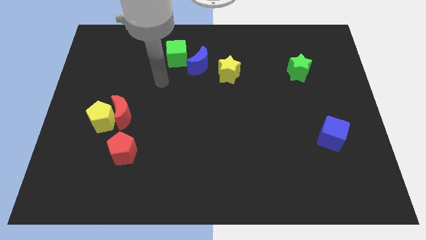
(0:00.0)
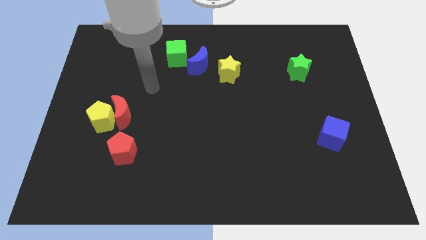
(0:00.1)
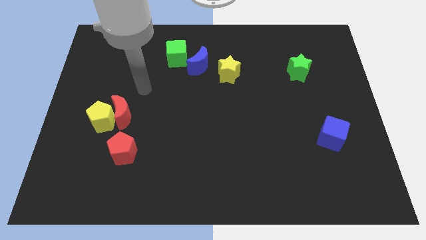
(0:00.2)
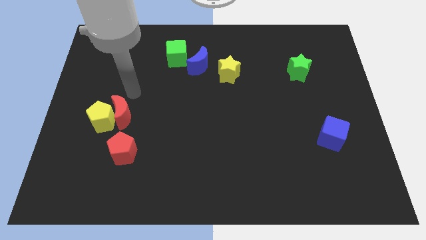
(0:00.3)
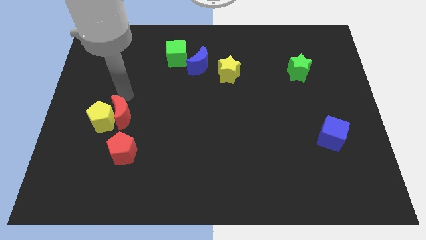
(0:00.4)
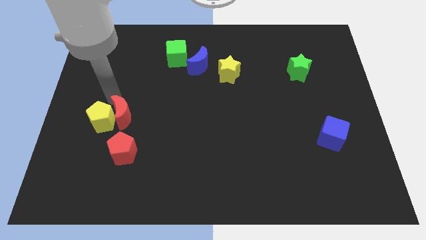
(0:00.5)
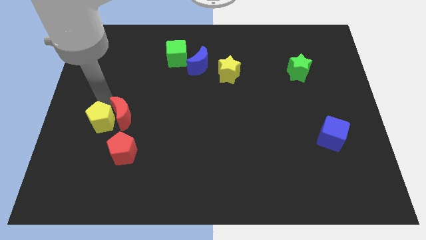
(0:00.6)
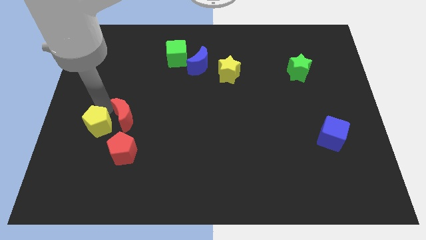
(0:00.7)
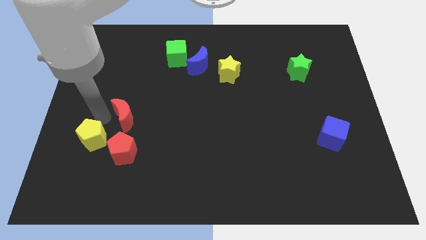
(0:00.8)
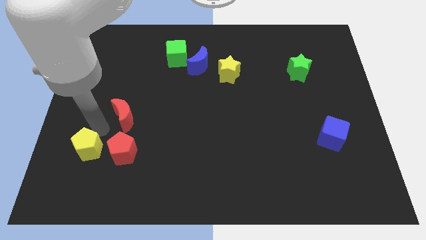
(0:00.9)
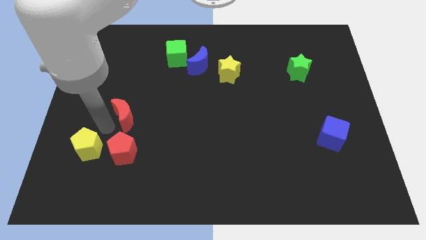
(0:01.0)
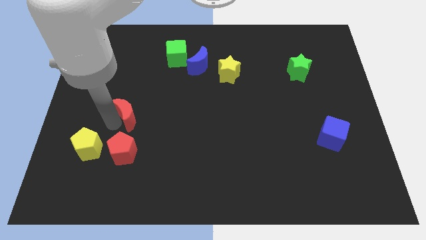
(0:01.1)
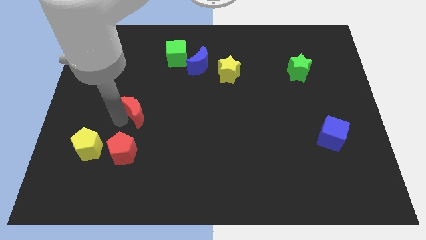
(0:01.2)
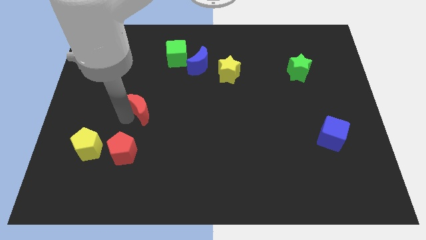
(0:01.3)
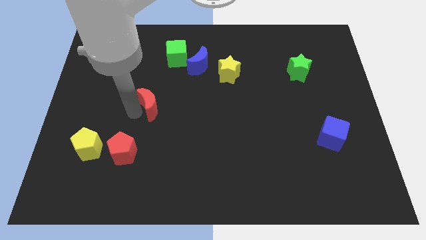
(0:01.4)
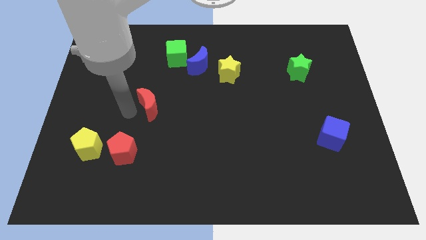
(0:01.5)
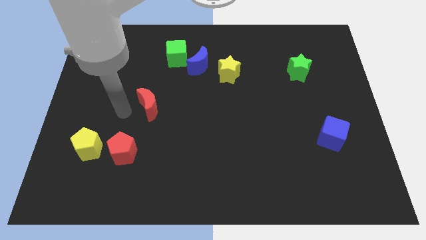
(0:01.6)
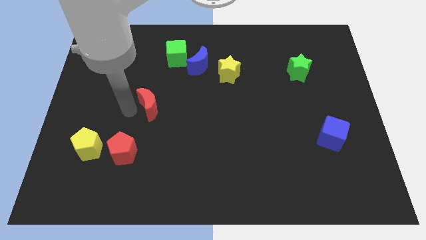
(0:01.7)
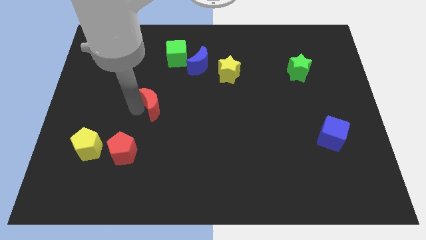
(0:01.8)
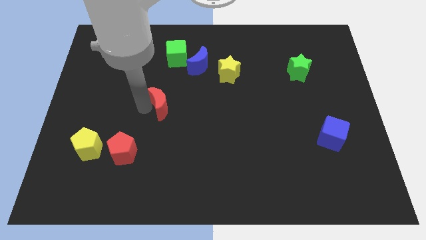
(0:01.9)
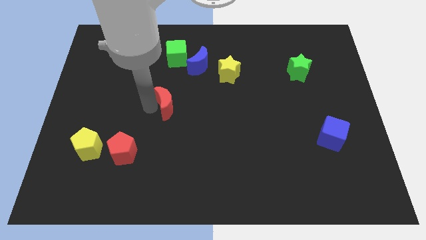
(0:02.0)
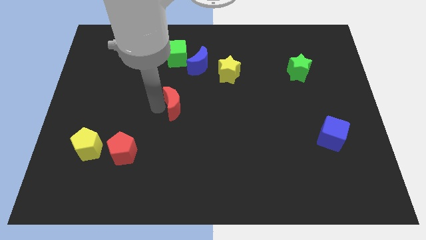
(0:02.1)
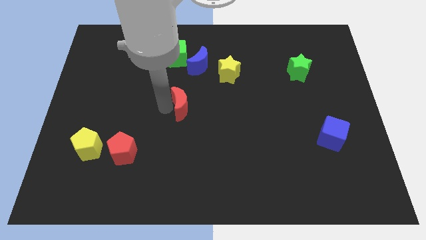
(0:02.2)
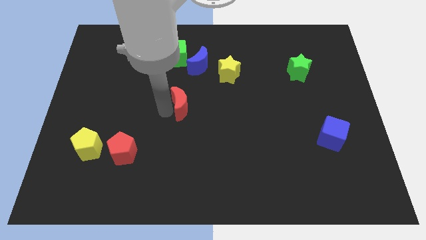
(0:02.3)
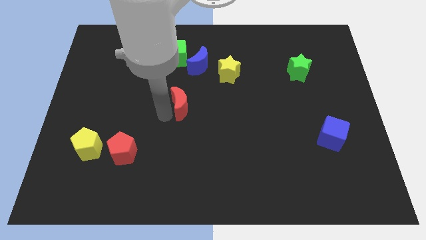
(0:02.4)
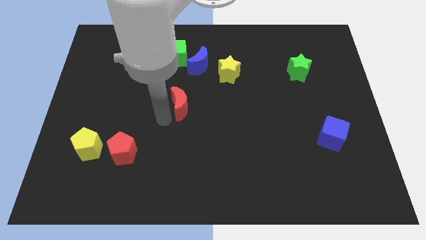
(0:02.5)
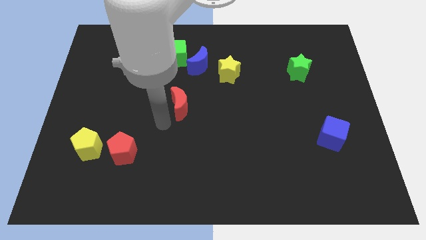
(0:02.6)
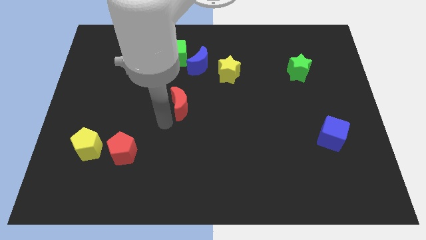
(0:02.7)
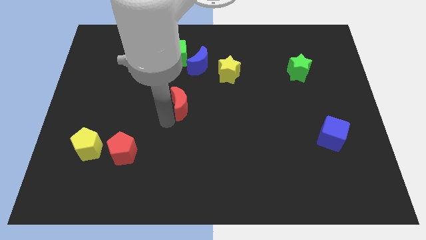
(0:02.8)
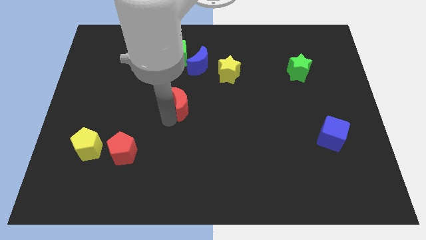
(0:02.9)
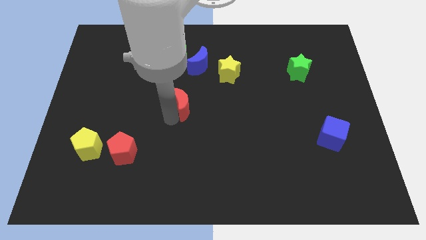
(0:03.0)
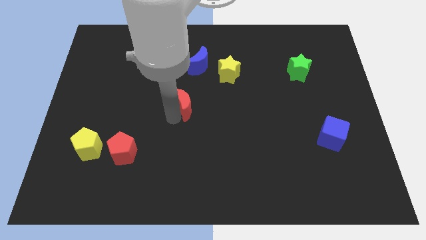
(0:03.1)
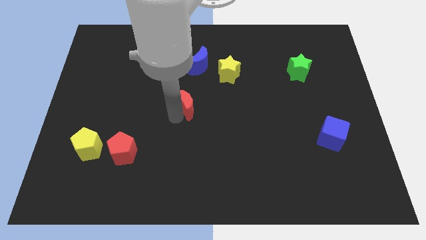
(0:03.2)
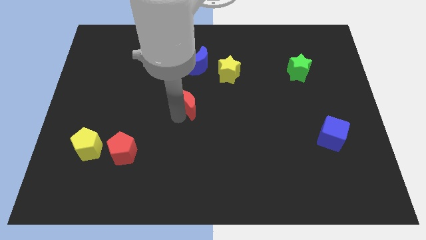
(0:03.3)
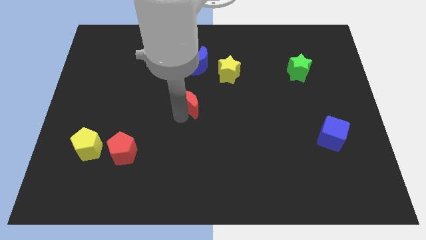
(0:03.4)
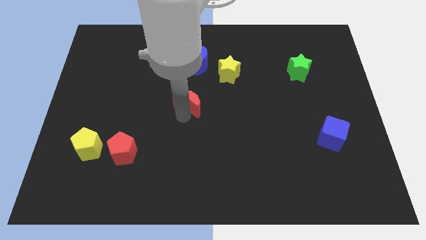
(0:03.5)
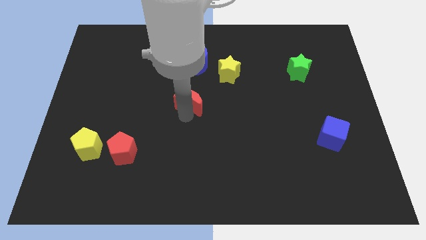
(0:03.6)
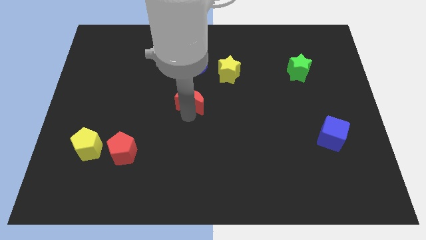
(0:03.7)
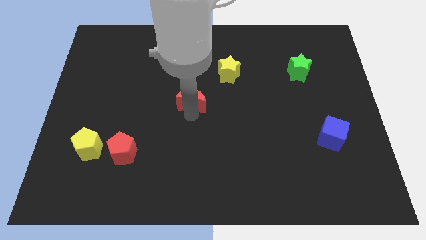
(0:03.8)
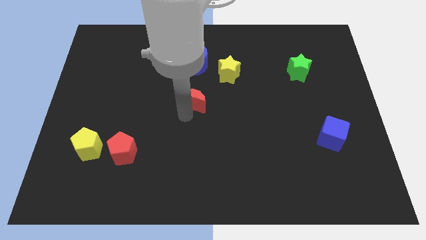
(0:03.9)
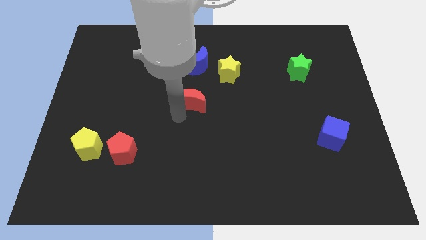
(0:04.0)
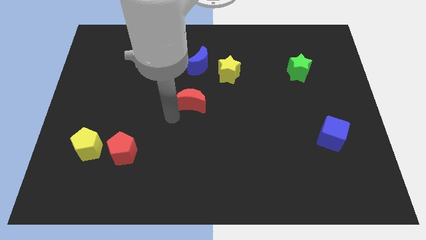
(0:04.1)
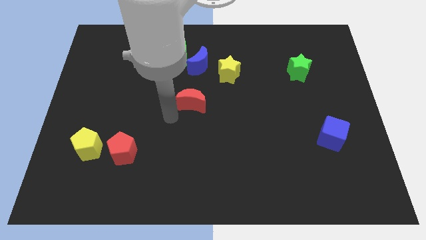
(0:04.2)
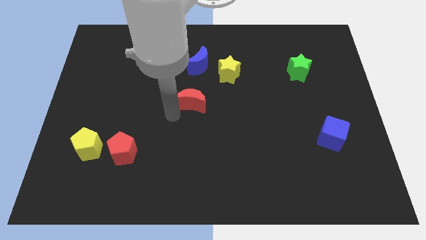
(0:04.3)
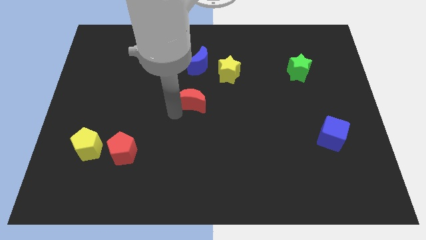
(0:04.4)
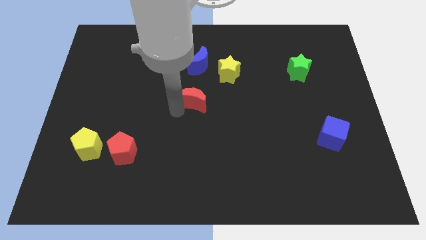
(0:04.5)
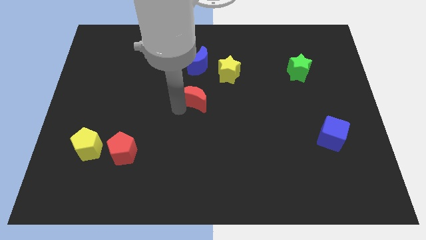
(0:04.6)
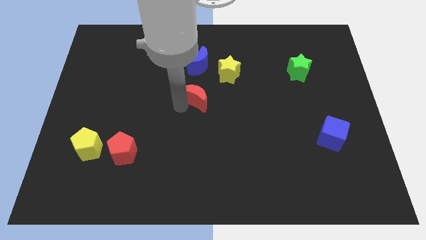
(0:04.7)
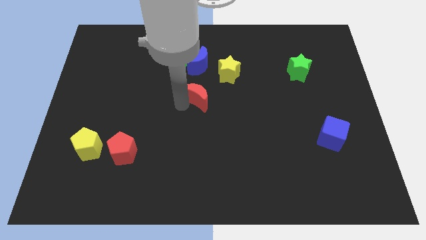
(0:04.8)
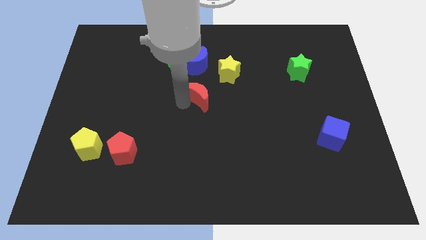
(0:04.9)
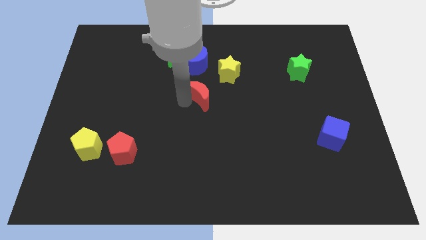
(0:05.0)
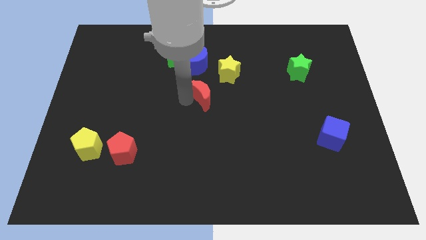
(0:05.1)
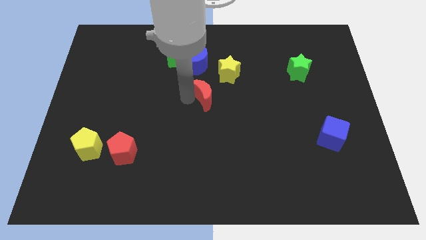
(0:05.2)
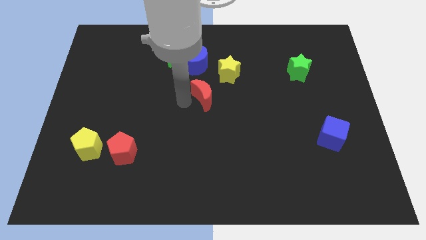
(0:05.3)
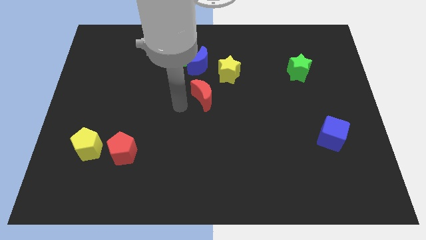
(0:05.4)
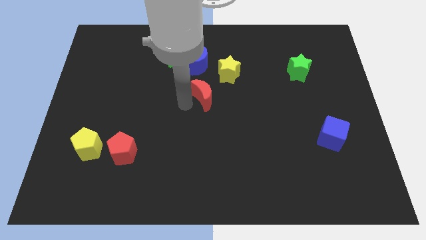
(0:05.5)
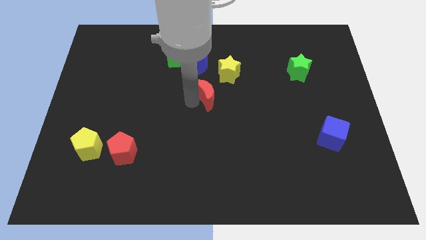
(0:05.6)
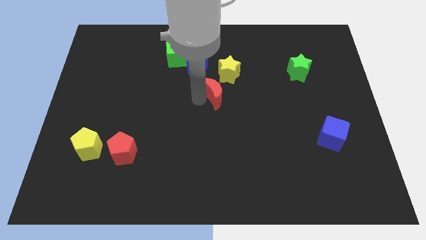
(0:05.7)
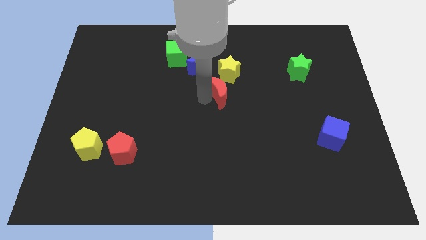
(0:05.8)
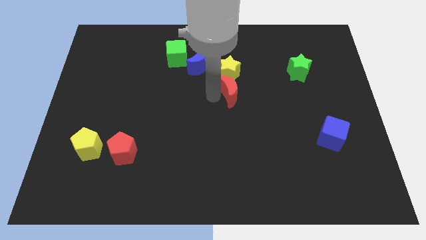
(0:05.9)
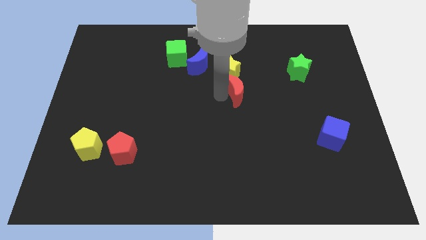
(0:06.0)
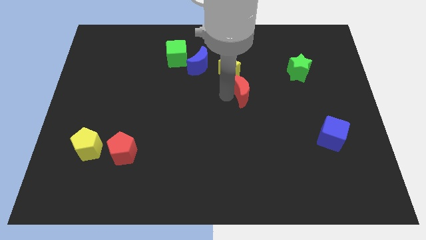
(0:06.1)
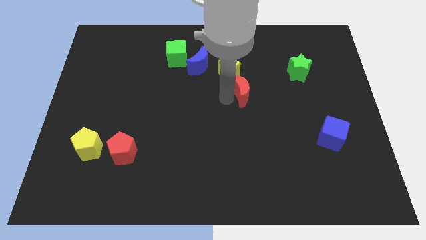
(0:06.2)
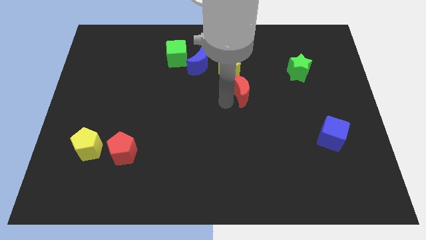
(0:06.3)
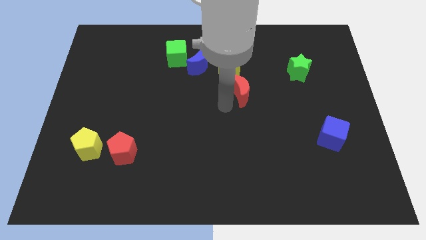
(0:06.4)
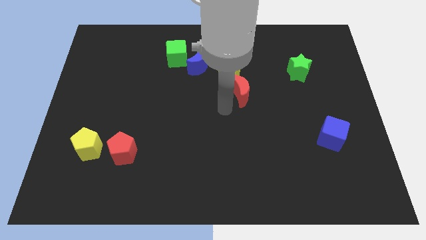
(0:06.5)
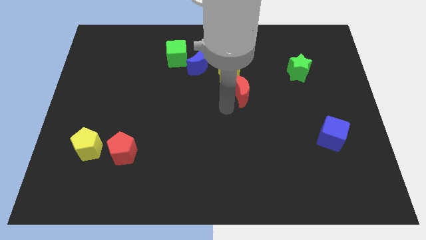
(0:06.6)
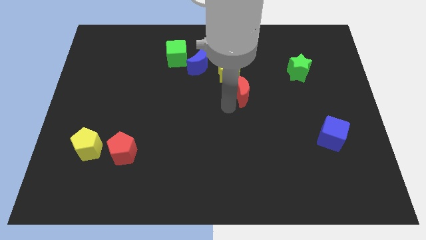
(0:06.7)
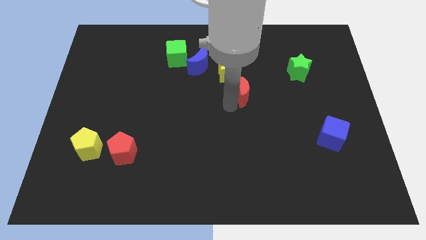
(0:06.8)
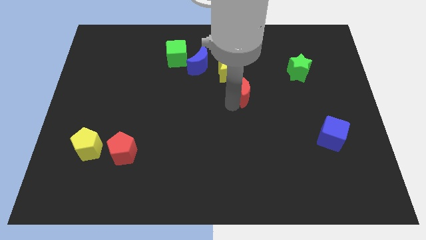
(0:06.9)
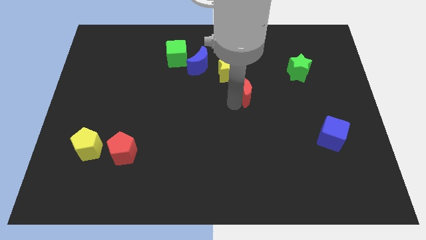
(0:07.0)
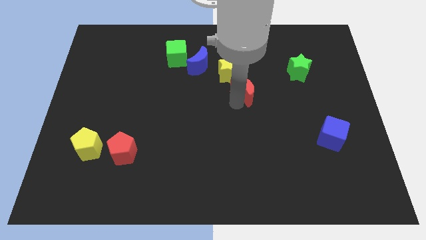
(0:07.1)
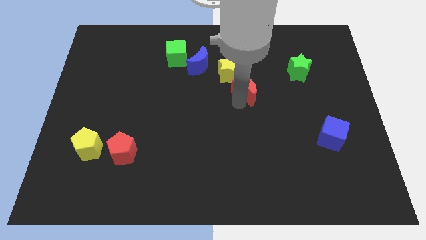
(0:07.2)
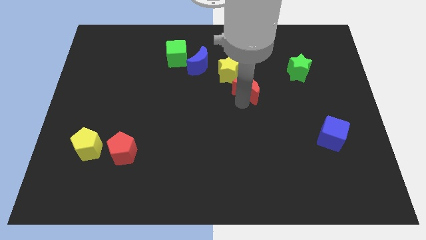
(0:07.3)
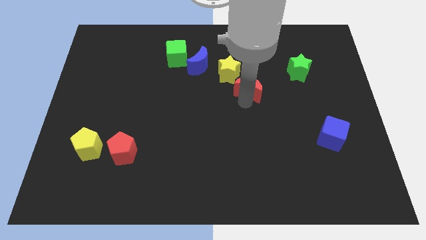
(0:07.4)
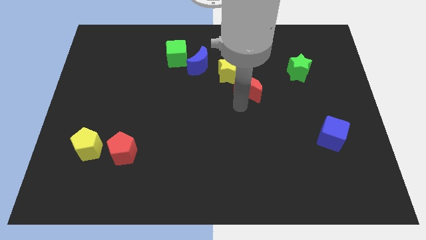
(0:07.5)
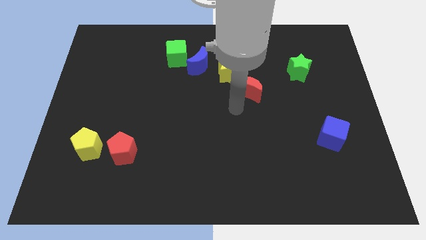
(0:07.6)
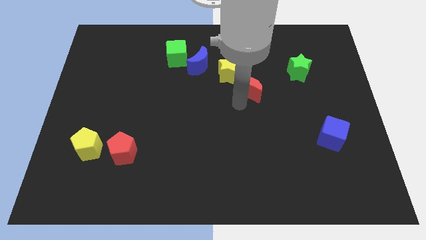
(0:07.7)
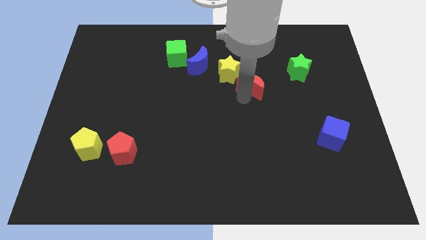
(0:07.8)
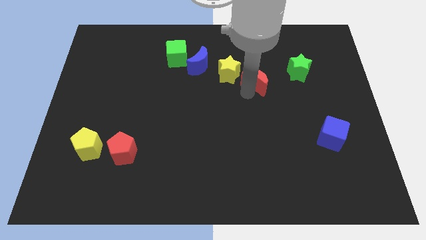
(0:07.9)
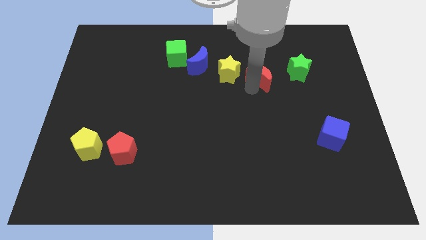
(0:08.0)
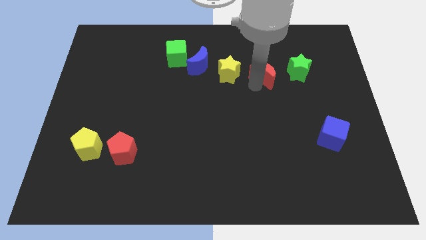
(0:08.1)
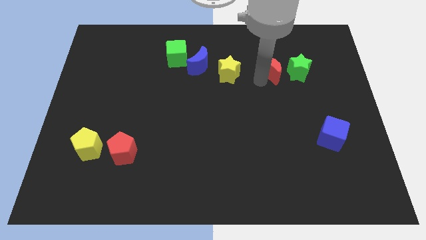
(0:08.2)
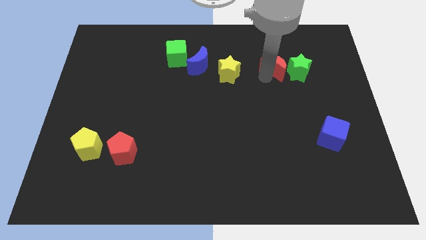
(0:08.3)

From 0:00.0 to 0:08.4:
slide the red moon diagonally up and to the left of the green star
